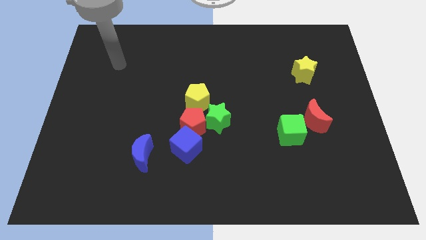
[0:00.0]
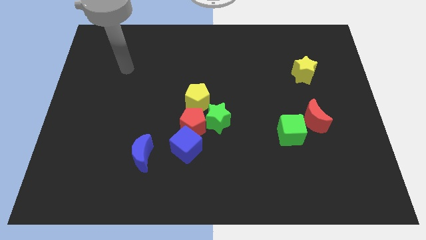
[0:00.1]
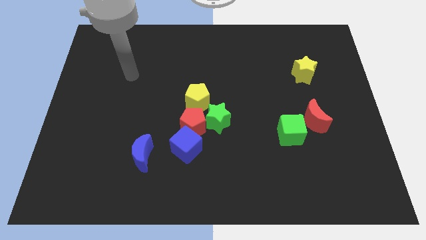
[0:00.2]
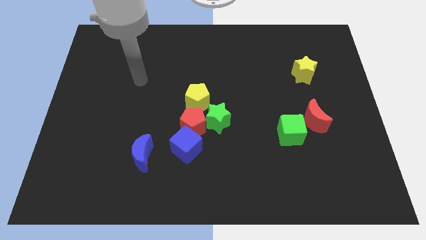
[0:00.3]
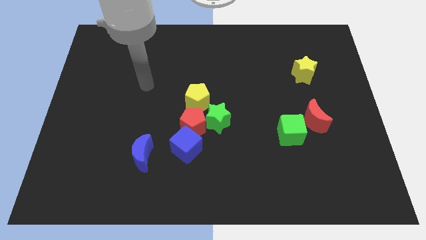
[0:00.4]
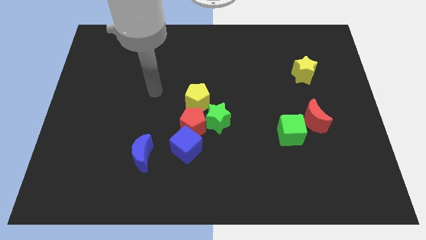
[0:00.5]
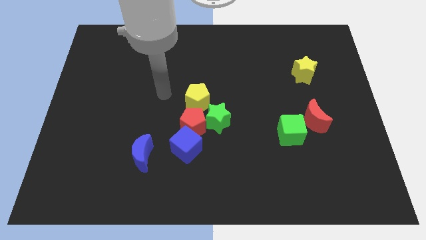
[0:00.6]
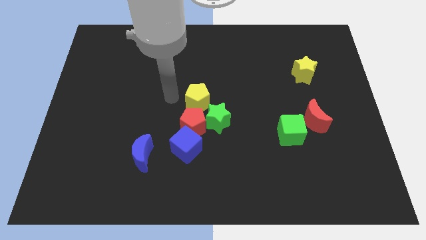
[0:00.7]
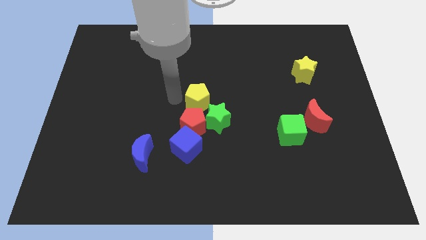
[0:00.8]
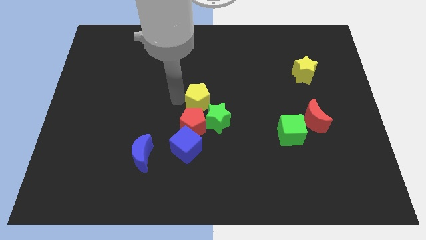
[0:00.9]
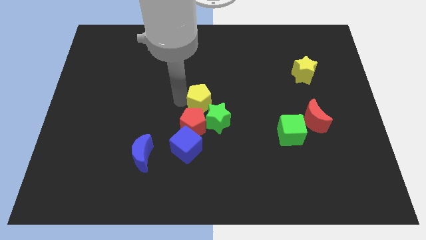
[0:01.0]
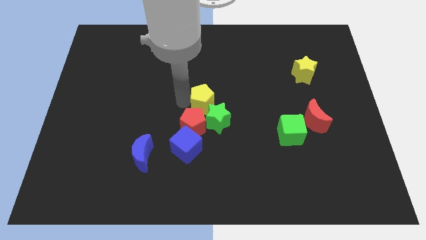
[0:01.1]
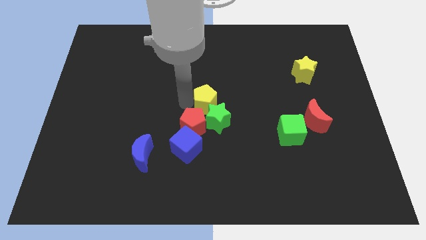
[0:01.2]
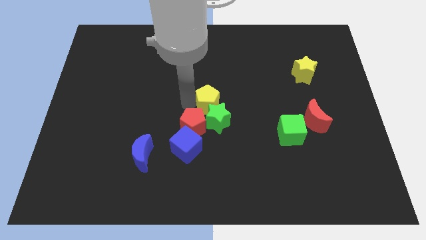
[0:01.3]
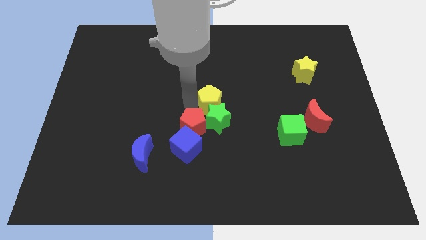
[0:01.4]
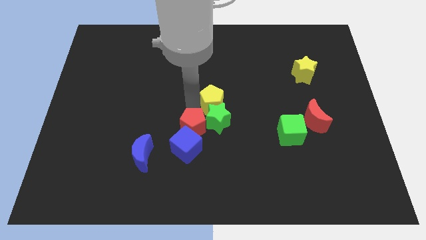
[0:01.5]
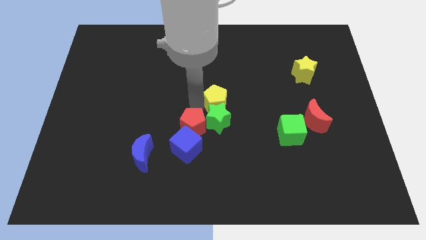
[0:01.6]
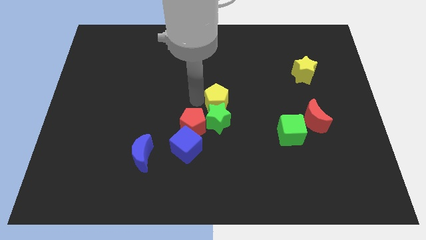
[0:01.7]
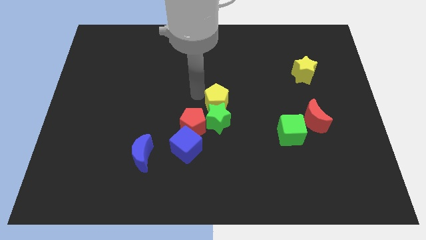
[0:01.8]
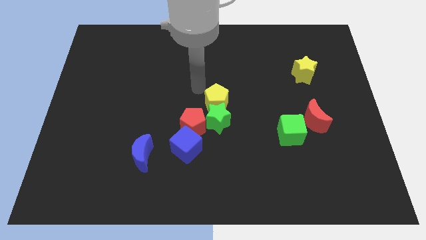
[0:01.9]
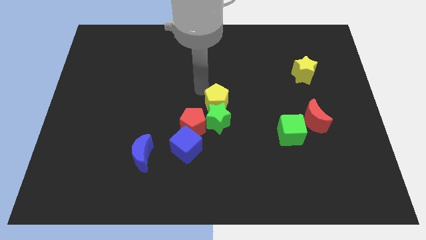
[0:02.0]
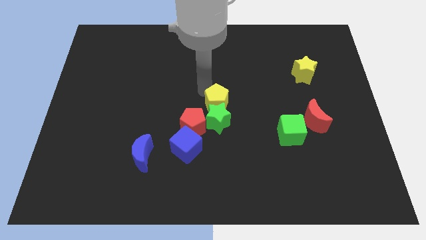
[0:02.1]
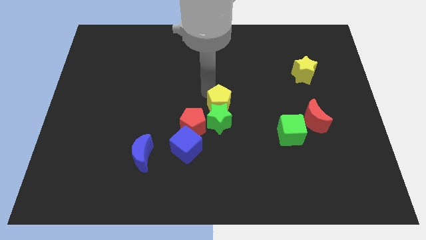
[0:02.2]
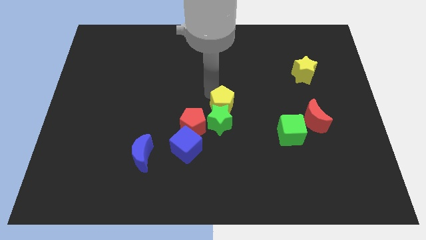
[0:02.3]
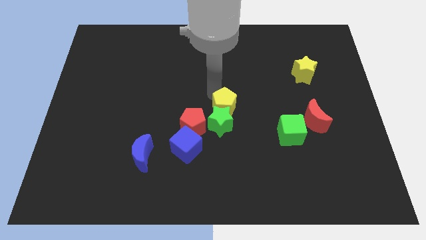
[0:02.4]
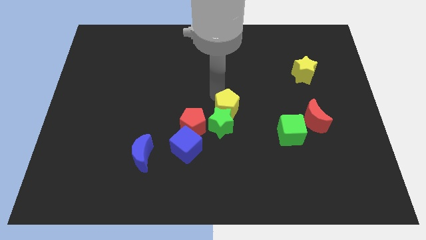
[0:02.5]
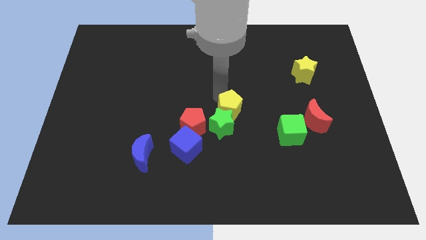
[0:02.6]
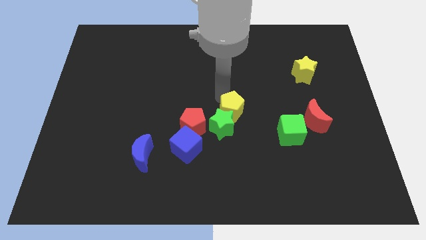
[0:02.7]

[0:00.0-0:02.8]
move the yellow pentagon a bit diagonally down and right

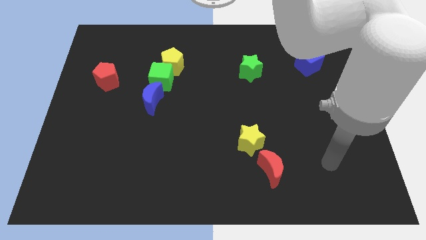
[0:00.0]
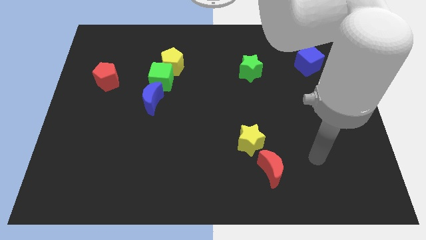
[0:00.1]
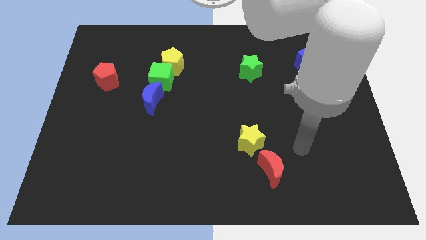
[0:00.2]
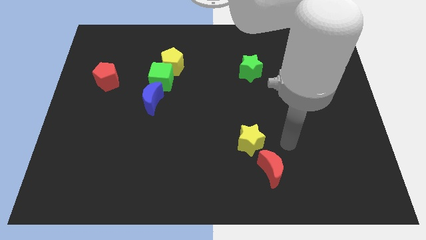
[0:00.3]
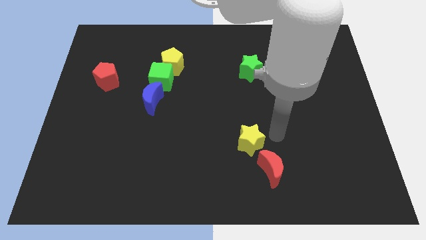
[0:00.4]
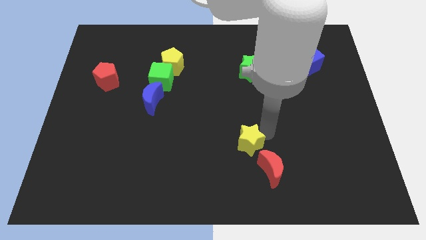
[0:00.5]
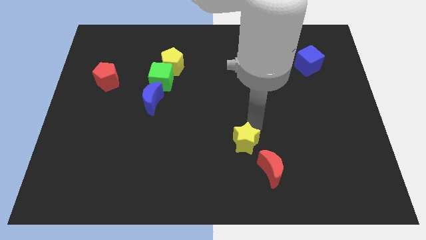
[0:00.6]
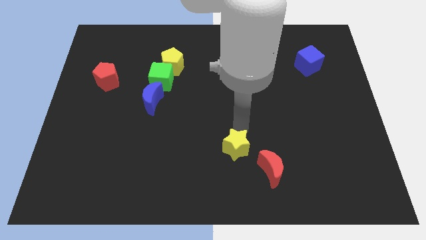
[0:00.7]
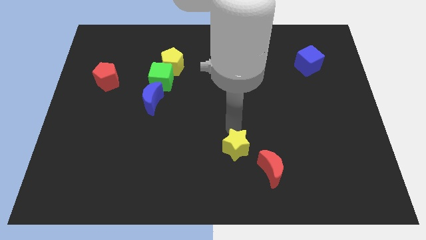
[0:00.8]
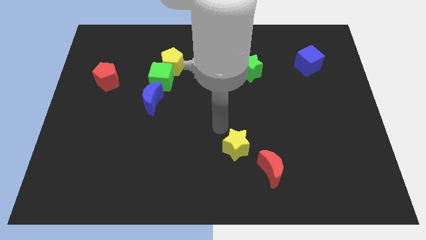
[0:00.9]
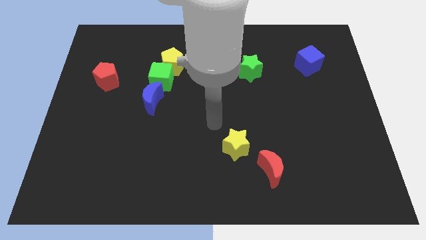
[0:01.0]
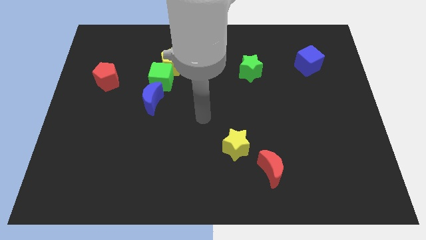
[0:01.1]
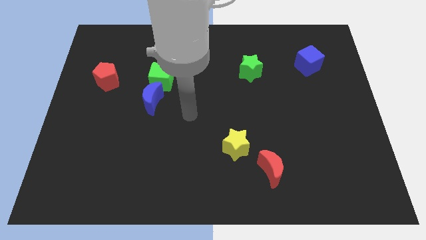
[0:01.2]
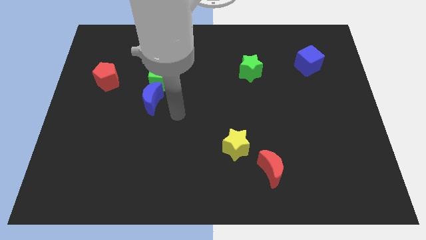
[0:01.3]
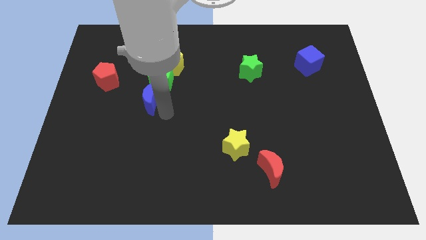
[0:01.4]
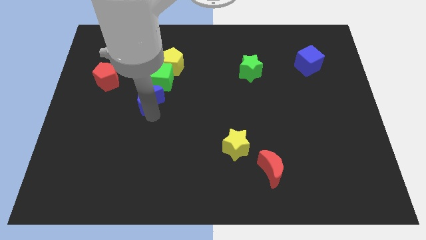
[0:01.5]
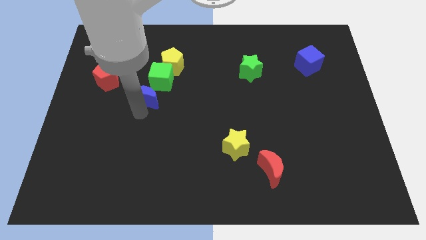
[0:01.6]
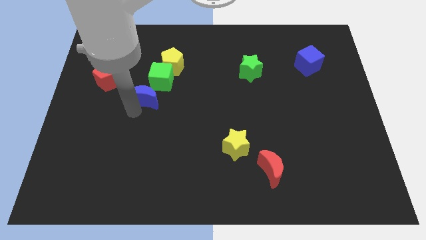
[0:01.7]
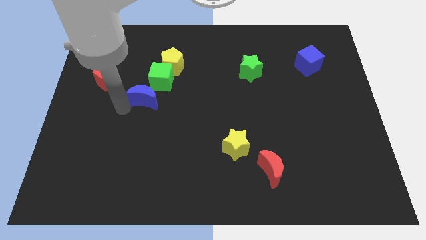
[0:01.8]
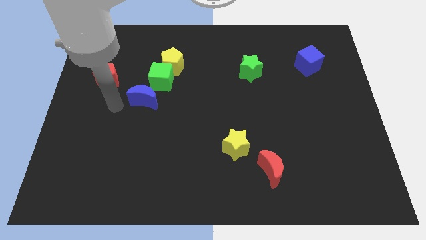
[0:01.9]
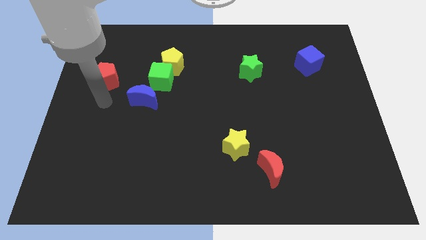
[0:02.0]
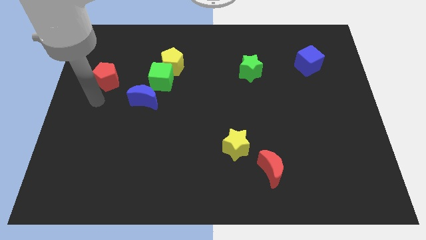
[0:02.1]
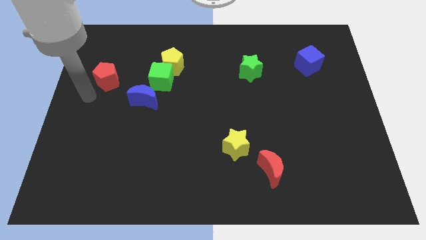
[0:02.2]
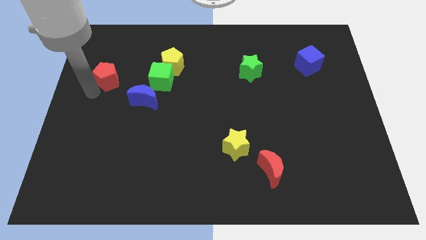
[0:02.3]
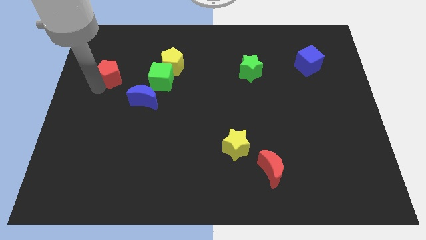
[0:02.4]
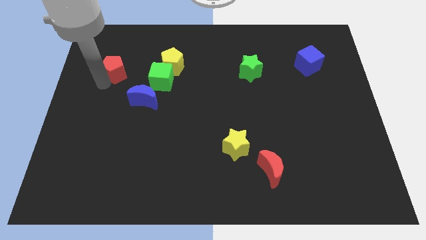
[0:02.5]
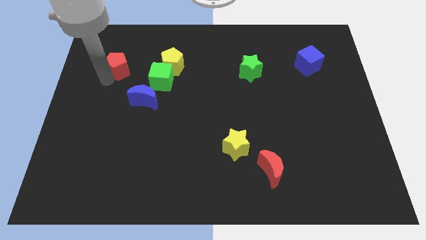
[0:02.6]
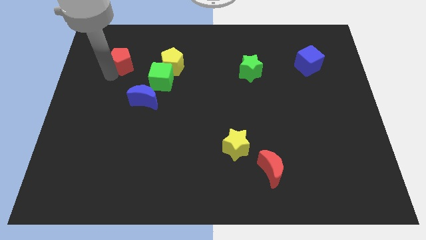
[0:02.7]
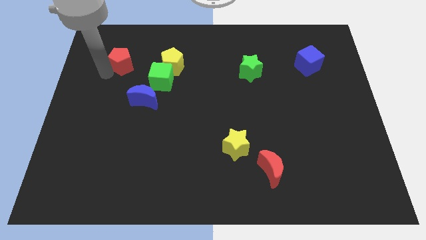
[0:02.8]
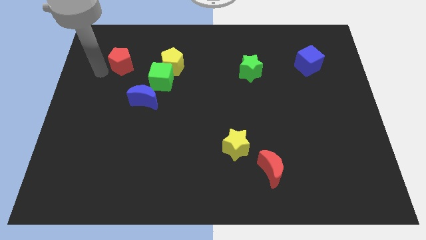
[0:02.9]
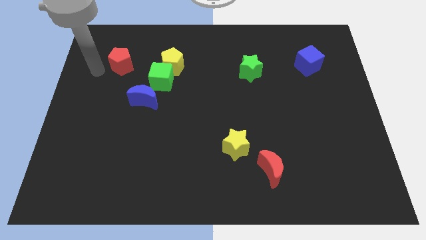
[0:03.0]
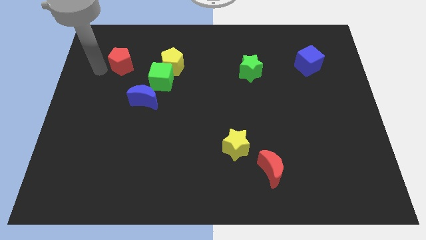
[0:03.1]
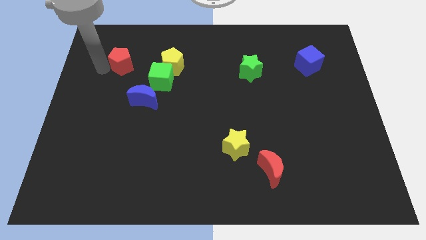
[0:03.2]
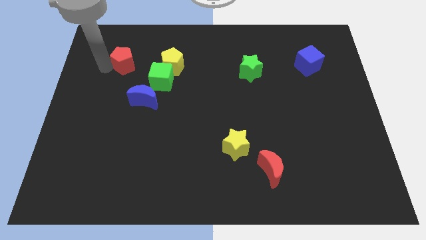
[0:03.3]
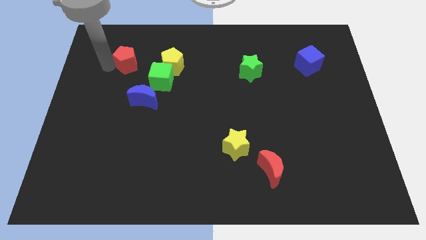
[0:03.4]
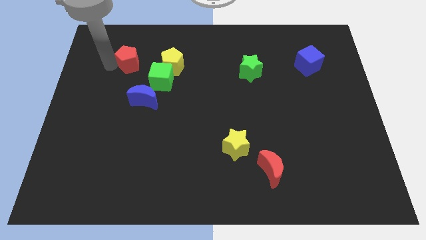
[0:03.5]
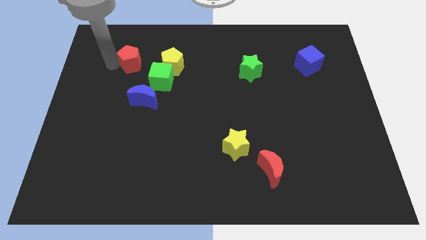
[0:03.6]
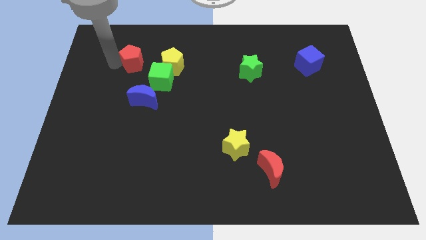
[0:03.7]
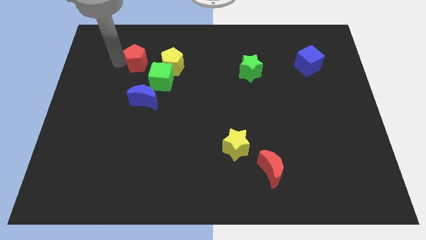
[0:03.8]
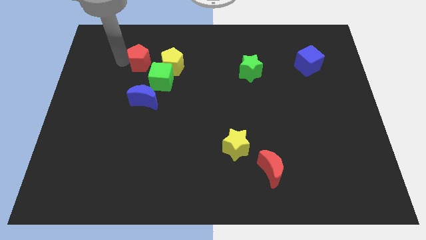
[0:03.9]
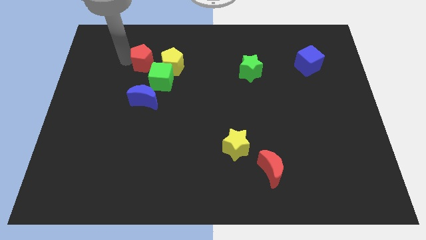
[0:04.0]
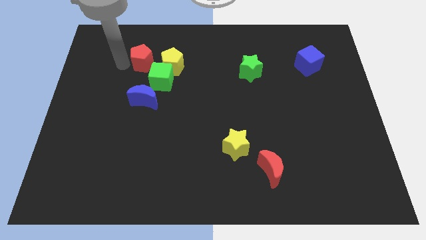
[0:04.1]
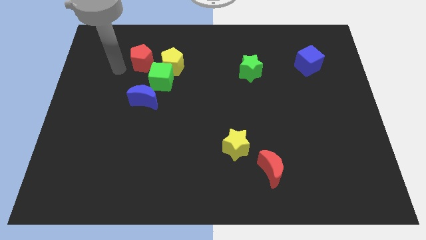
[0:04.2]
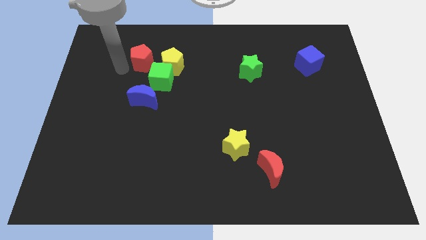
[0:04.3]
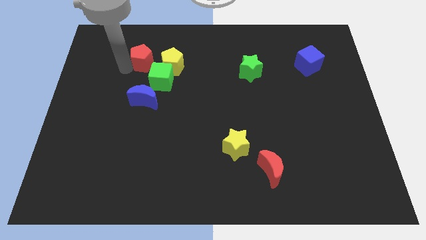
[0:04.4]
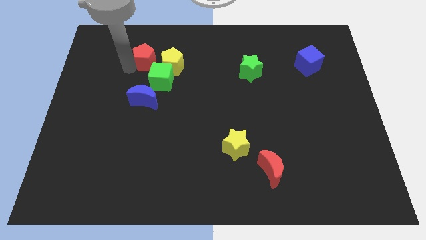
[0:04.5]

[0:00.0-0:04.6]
slide the red pentagon a little bit to the right

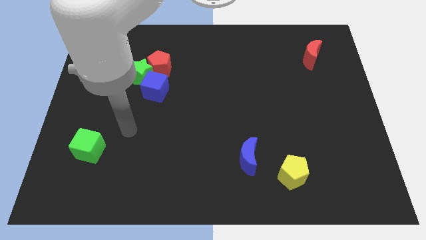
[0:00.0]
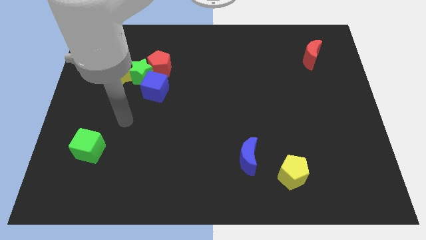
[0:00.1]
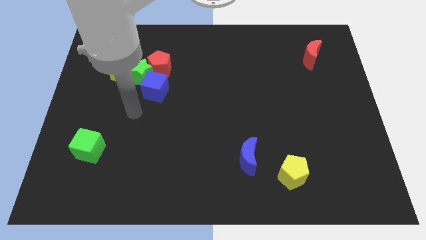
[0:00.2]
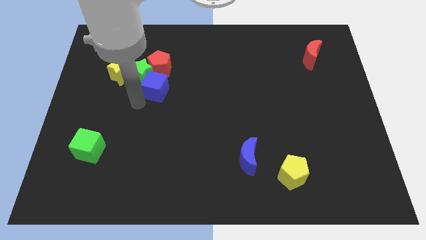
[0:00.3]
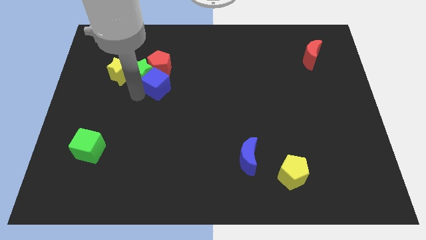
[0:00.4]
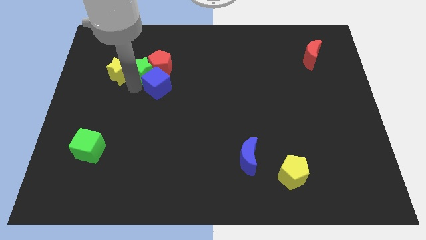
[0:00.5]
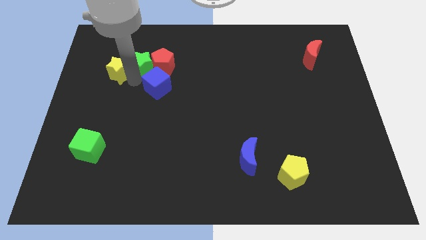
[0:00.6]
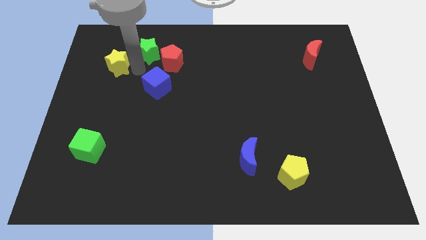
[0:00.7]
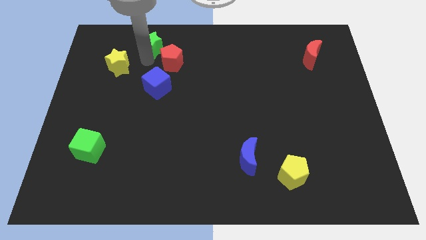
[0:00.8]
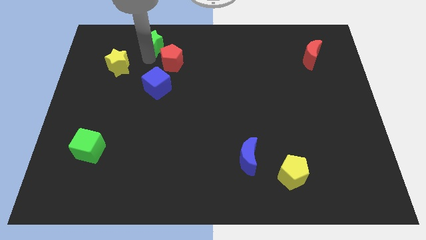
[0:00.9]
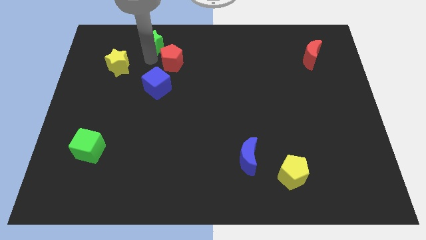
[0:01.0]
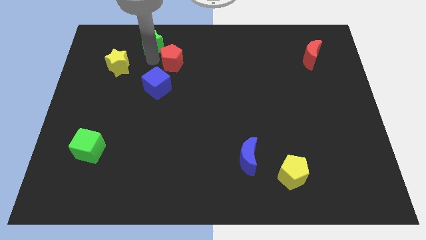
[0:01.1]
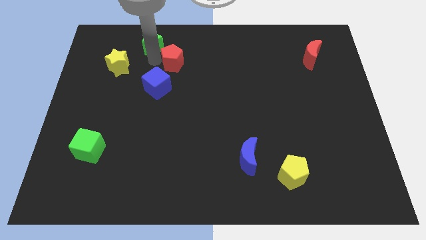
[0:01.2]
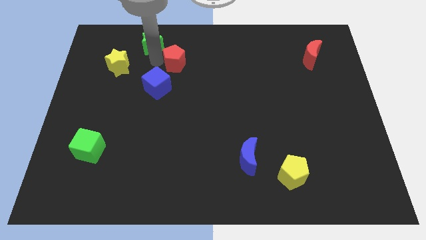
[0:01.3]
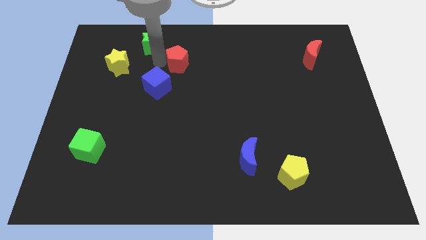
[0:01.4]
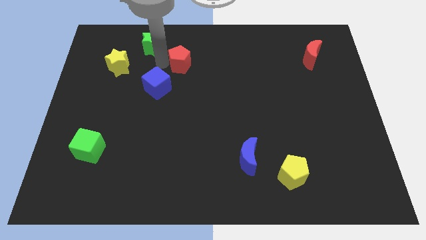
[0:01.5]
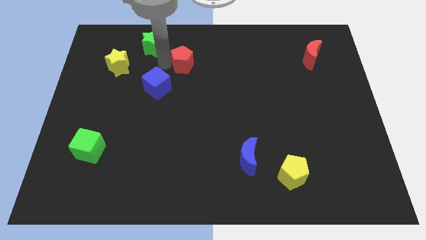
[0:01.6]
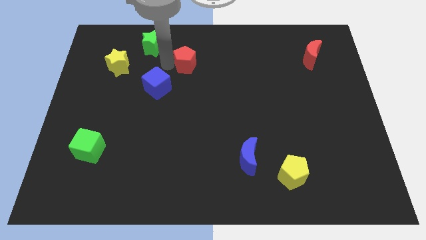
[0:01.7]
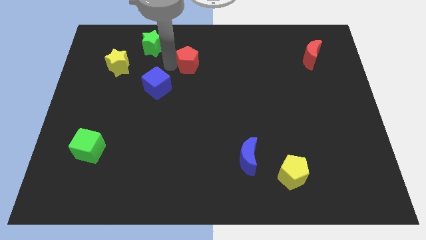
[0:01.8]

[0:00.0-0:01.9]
slightly move the red pentagon right
